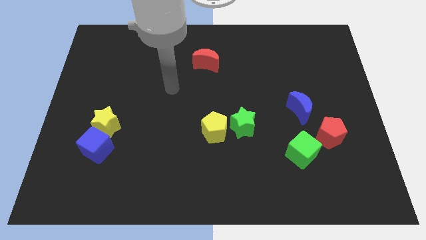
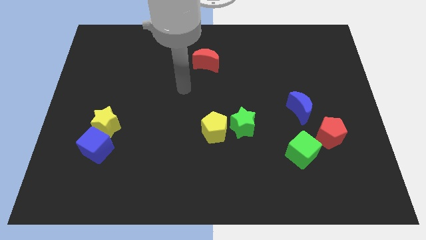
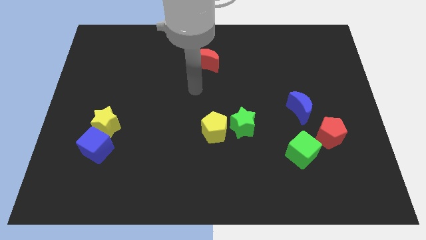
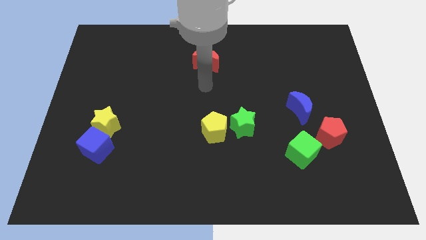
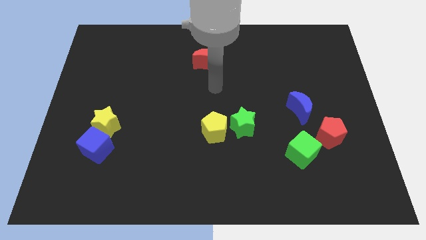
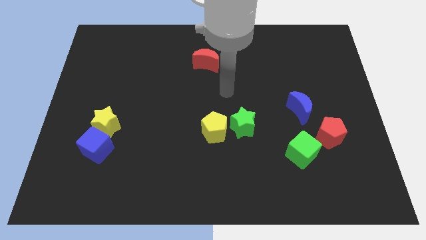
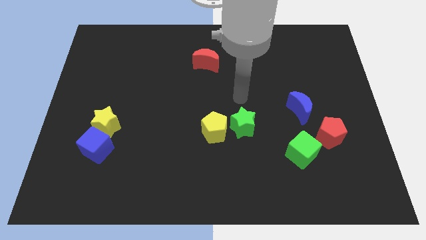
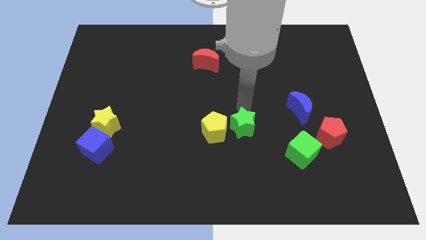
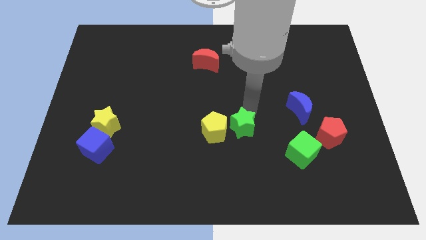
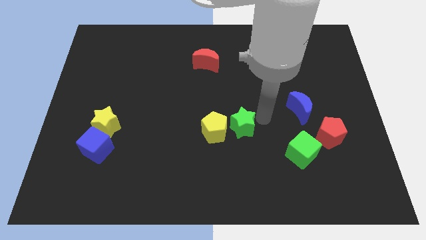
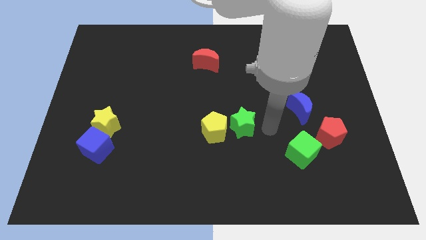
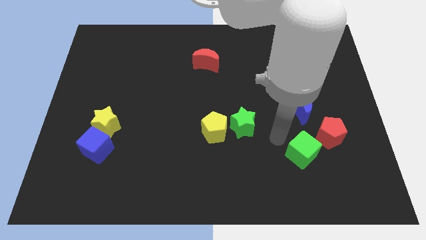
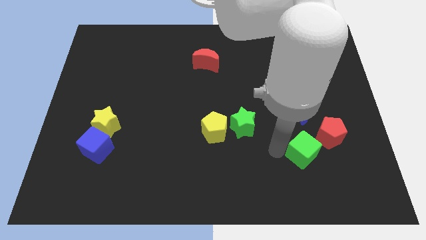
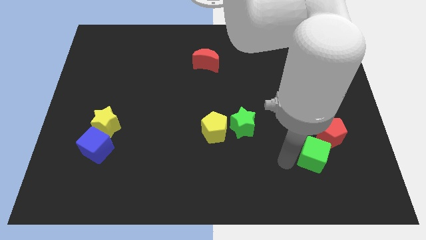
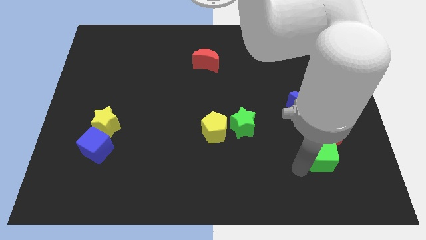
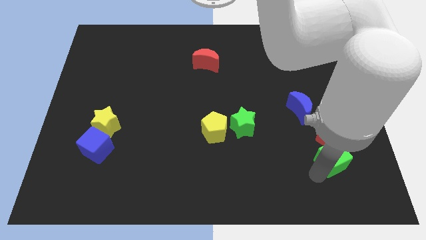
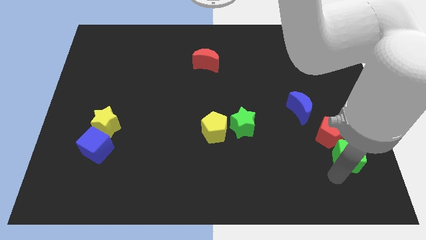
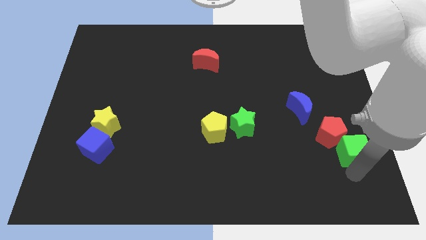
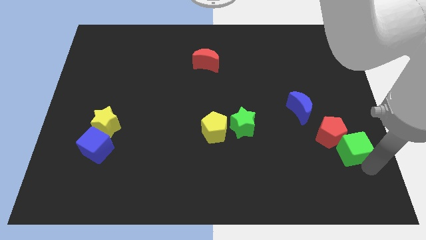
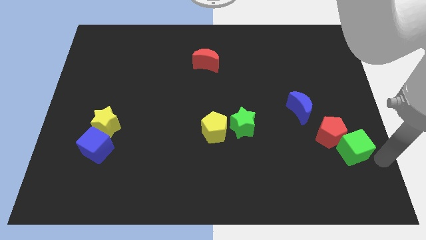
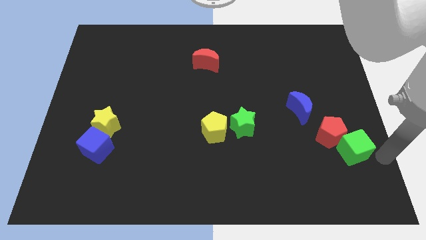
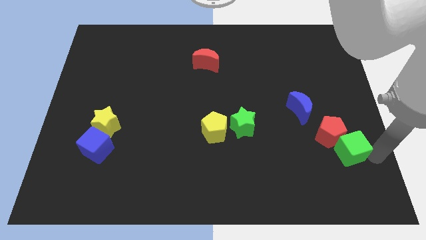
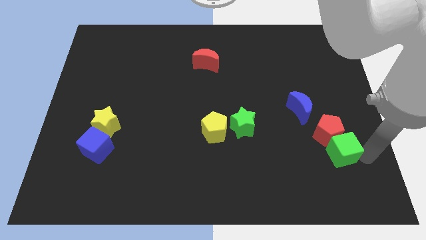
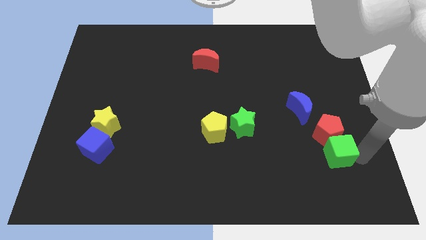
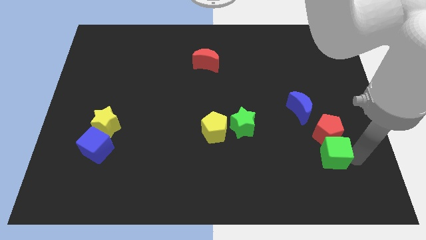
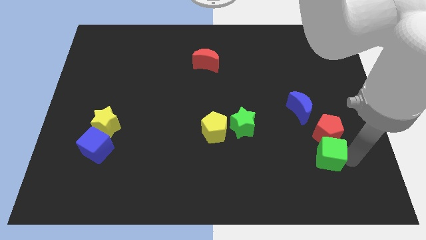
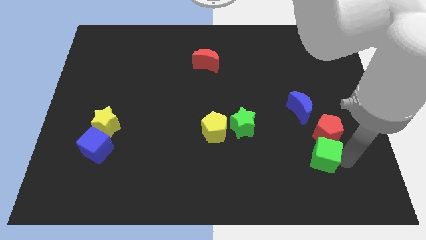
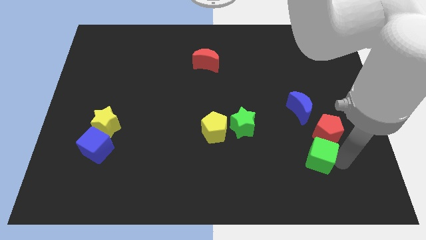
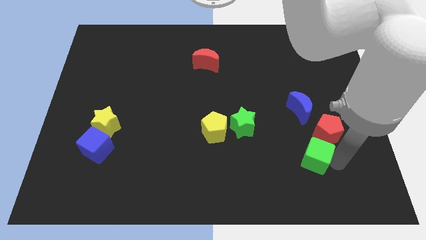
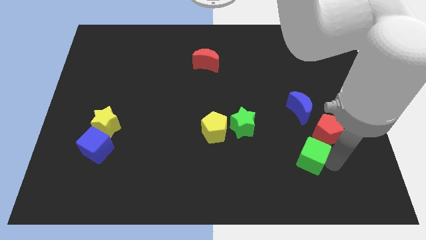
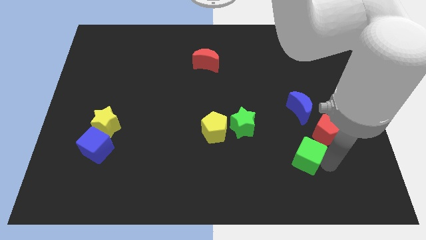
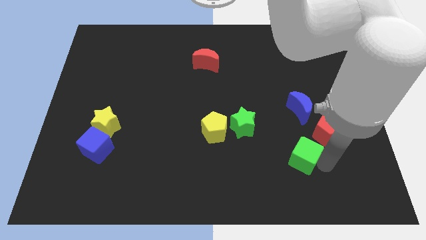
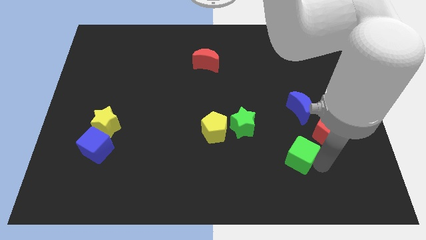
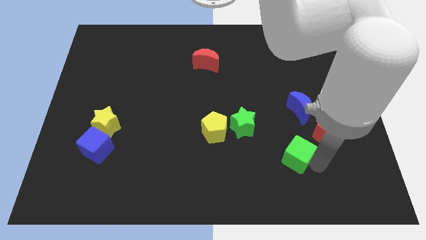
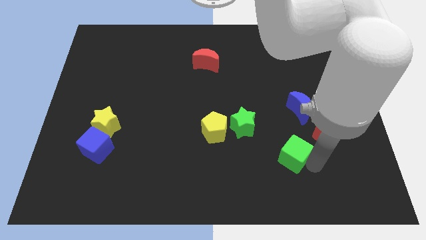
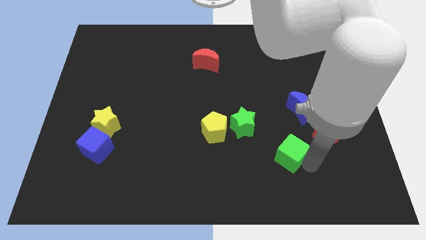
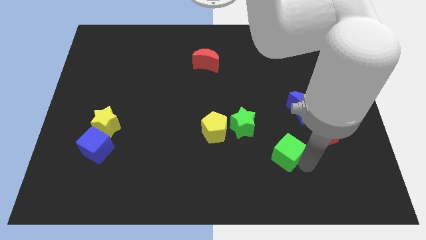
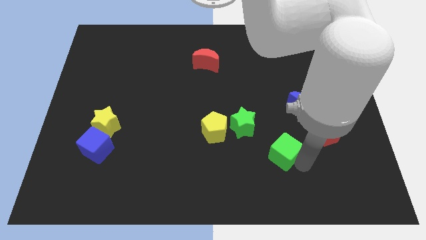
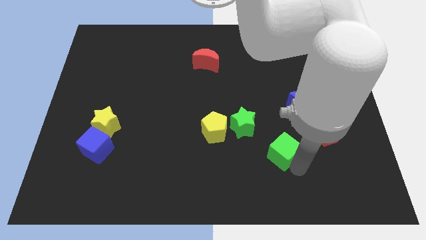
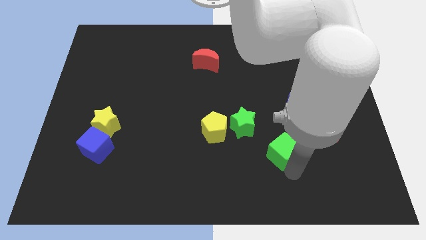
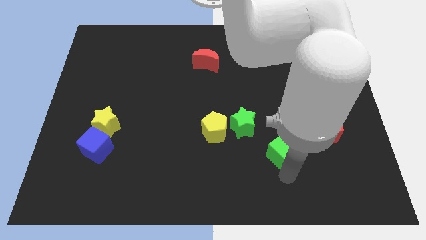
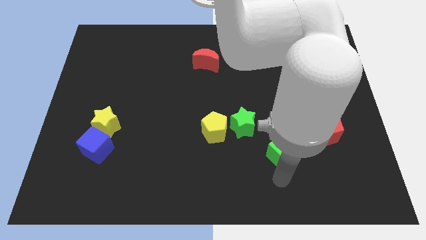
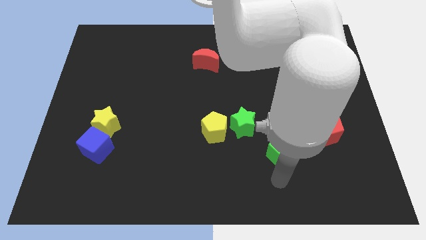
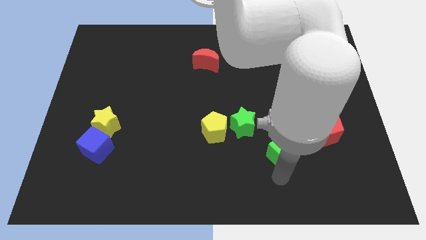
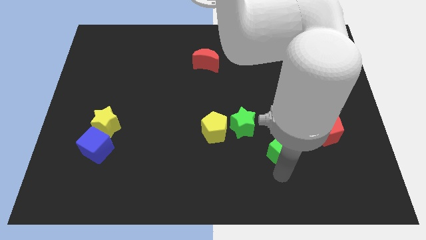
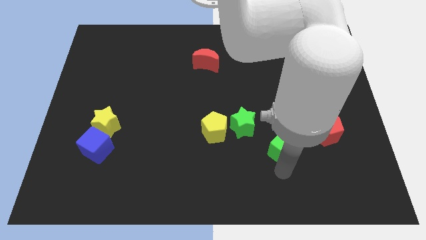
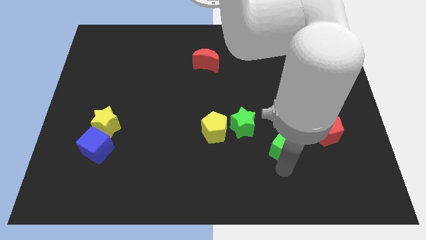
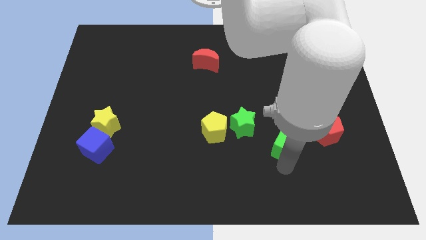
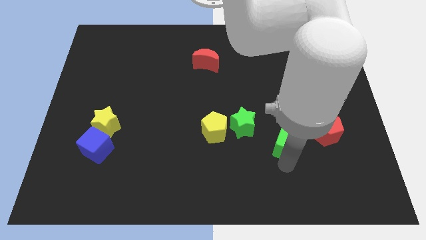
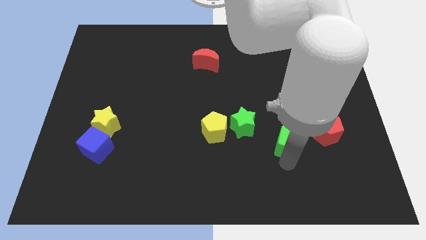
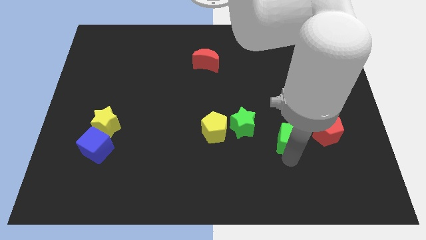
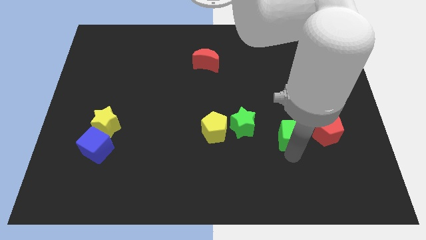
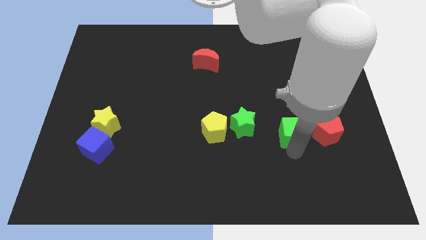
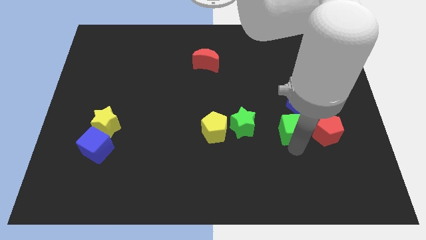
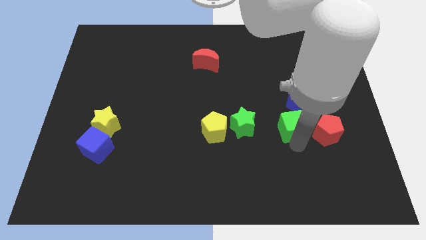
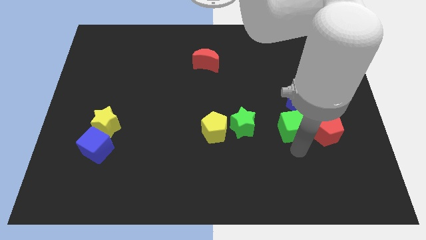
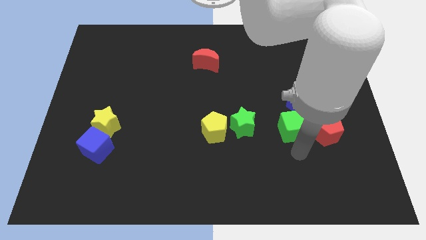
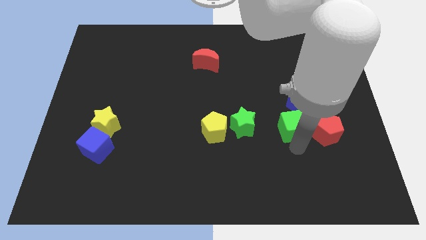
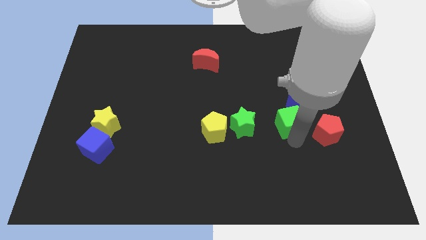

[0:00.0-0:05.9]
slide the green cube up a bit

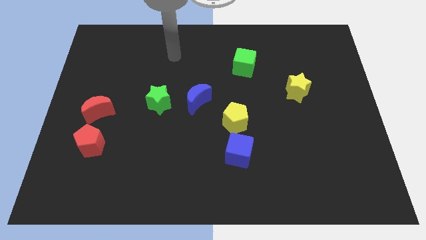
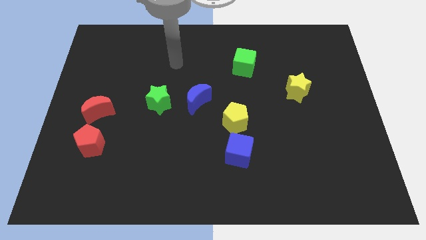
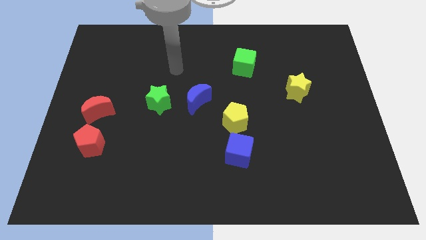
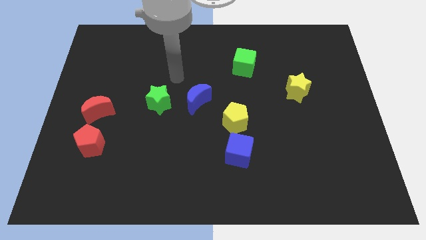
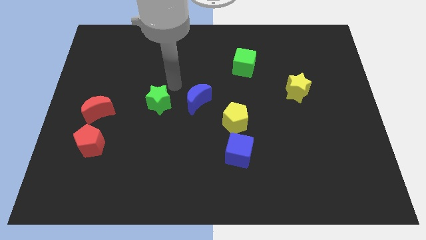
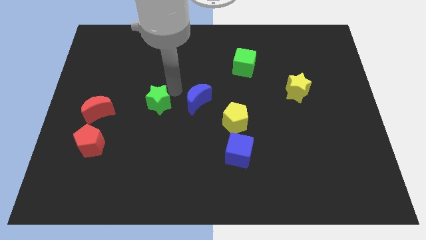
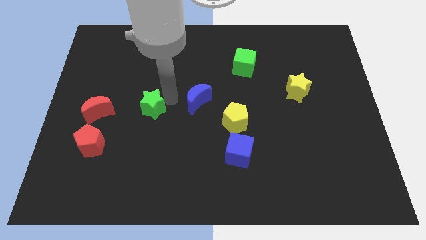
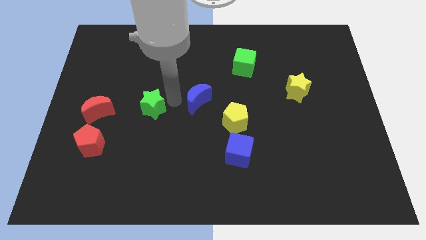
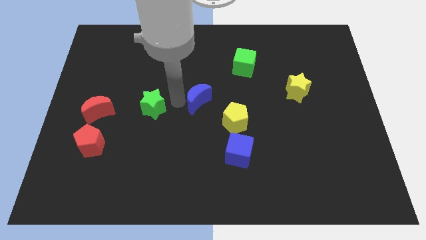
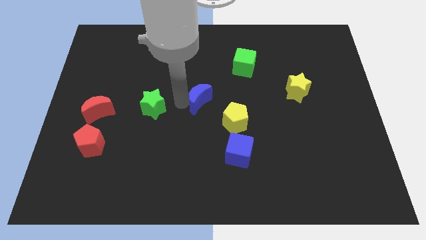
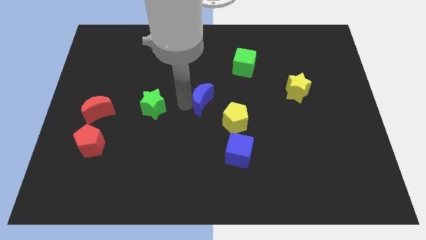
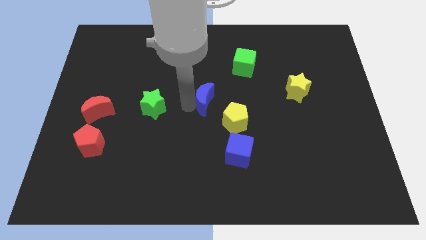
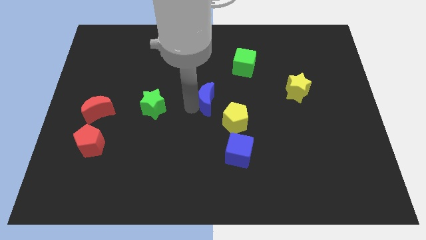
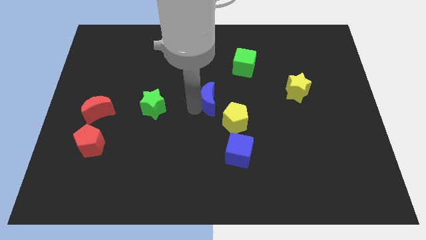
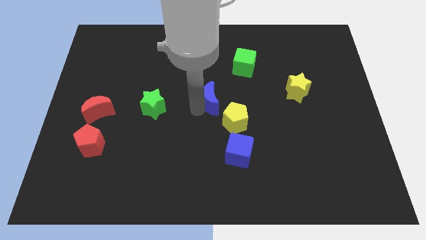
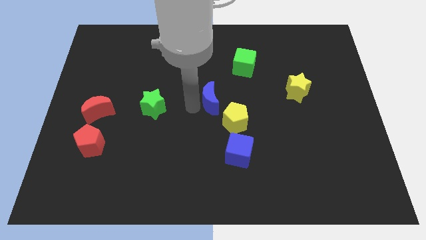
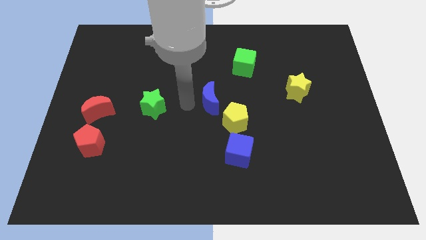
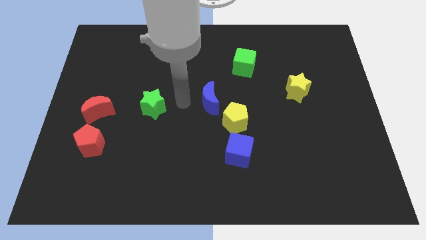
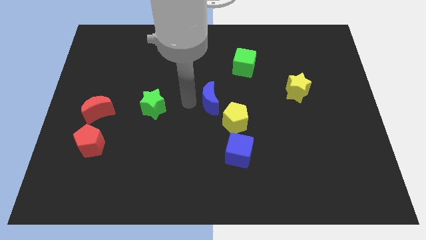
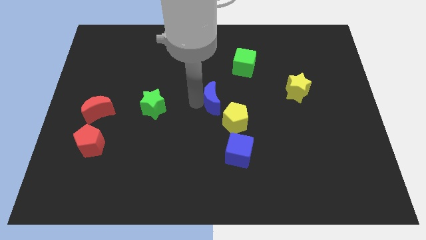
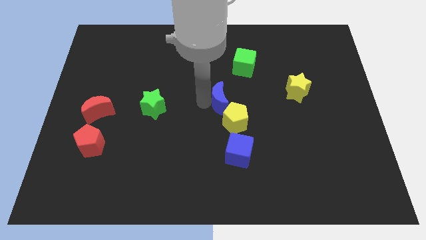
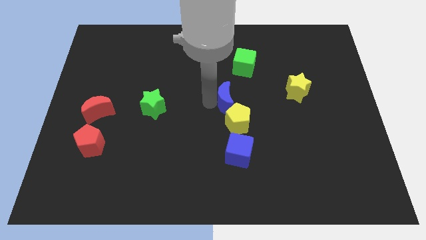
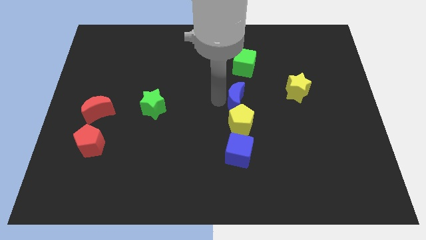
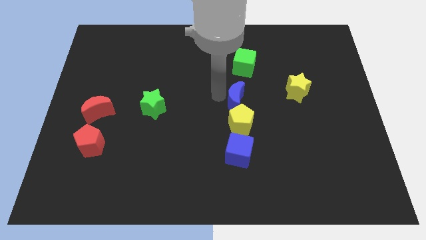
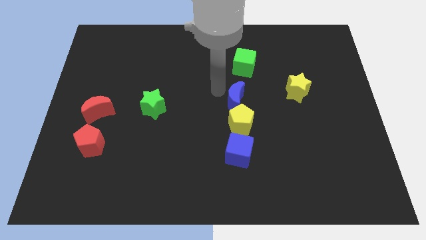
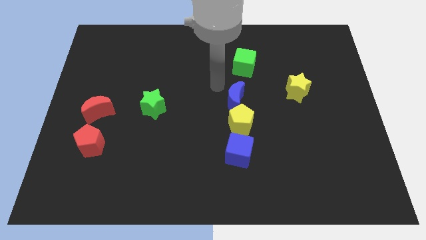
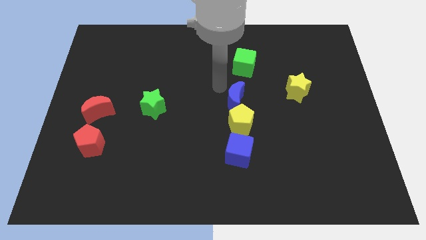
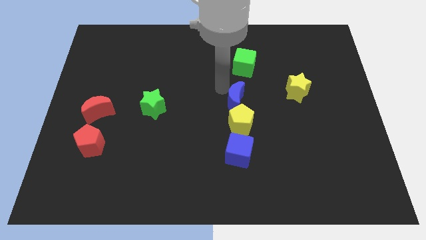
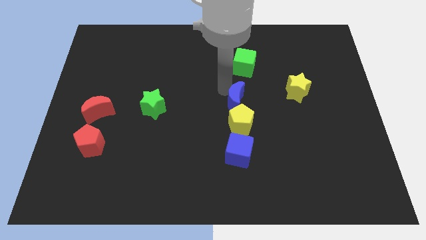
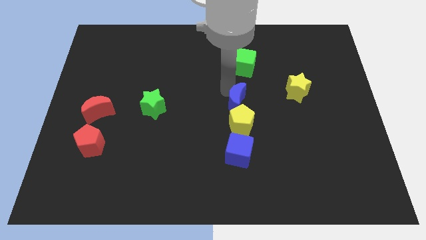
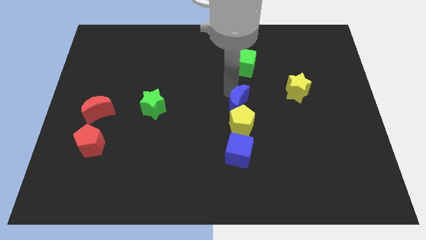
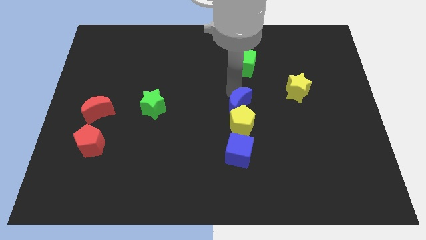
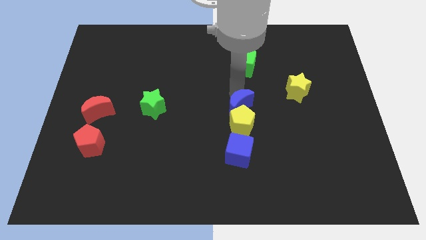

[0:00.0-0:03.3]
slightly slide the blue moon downwards and then to the right
